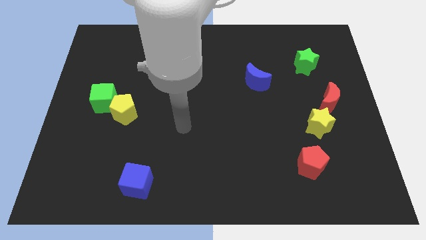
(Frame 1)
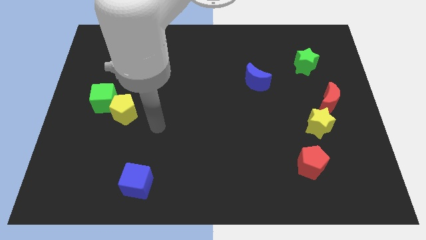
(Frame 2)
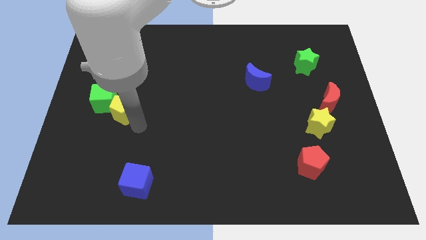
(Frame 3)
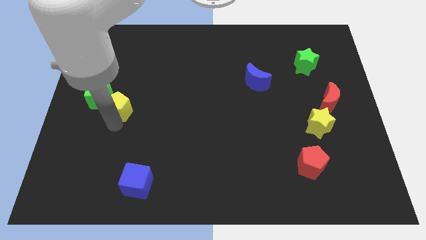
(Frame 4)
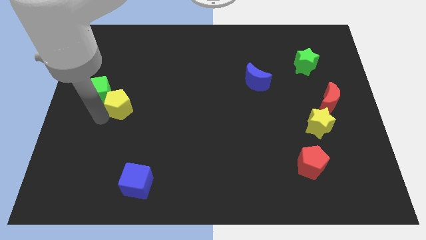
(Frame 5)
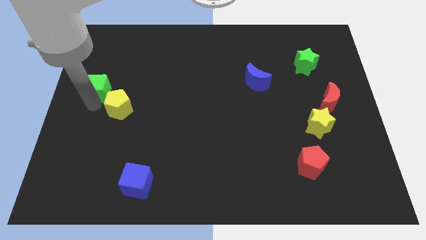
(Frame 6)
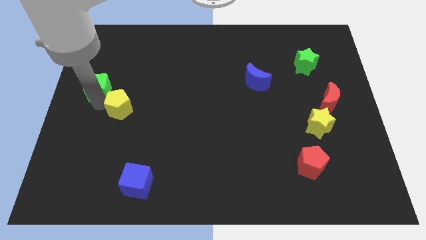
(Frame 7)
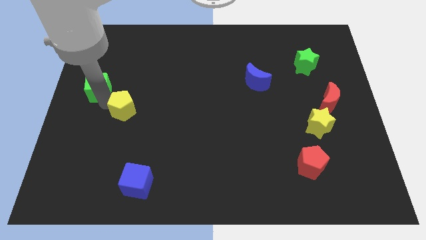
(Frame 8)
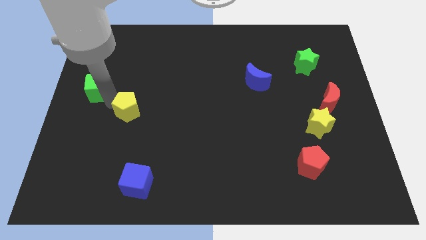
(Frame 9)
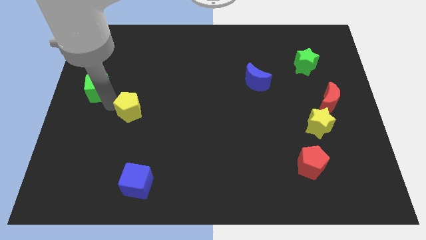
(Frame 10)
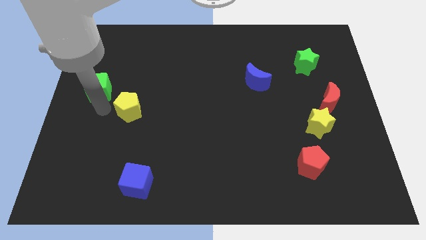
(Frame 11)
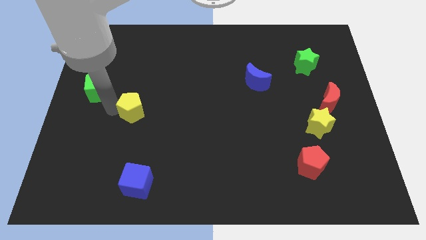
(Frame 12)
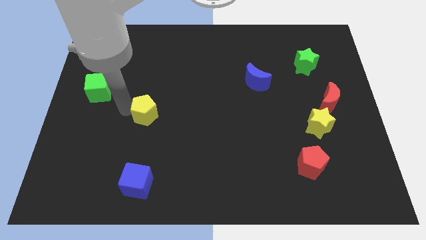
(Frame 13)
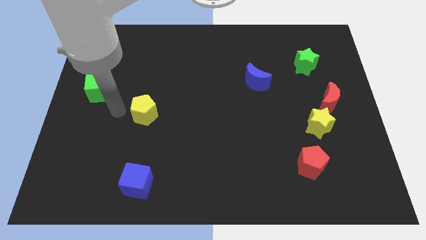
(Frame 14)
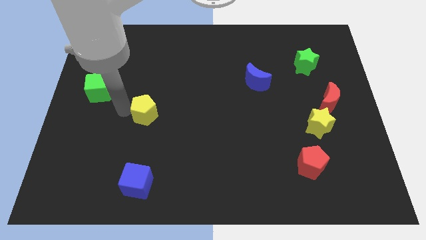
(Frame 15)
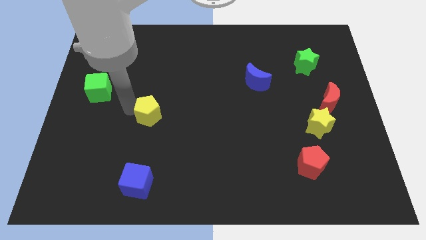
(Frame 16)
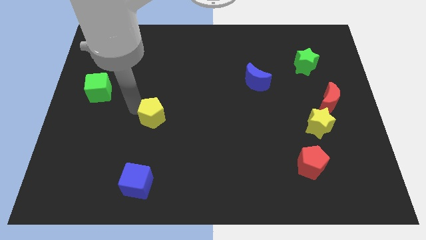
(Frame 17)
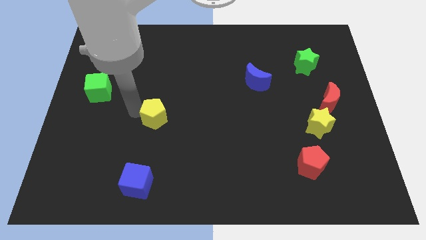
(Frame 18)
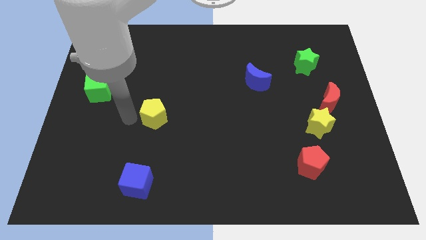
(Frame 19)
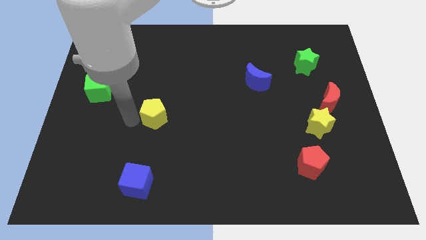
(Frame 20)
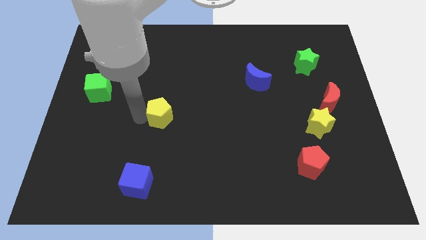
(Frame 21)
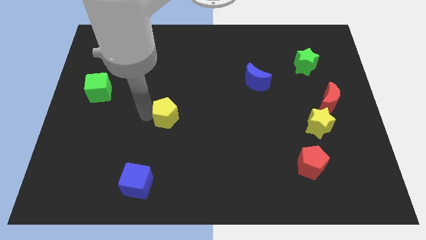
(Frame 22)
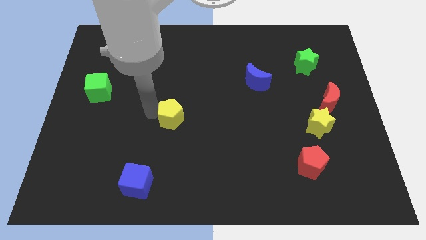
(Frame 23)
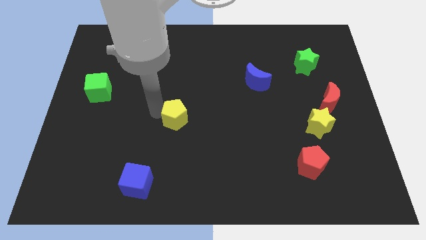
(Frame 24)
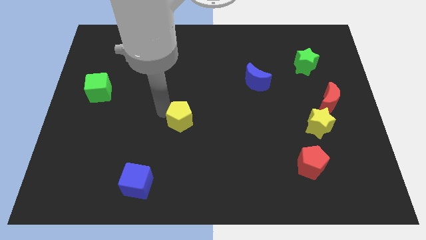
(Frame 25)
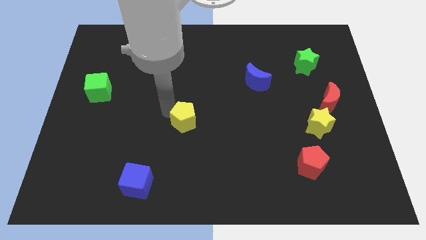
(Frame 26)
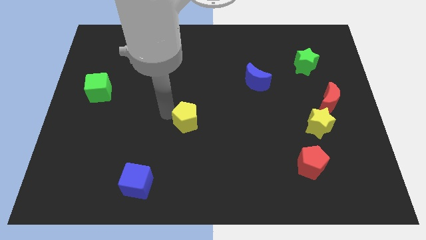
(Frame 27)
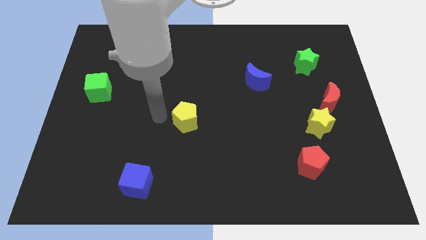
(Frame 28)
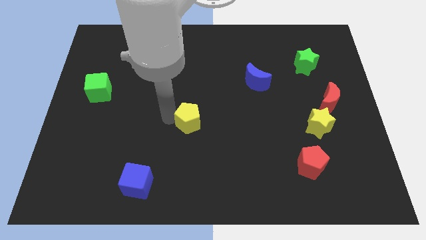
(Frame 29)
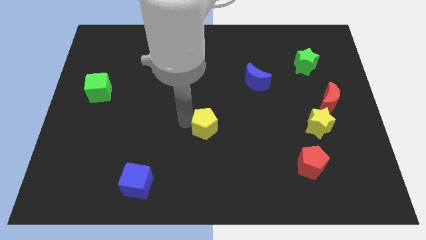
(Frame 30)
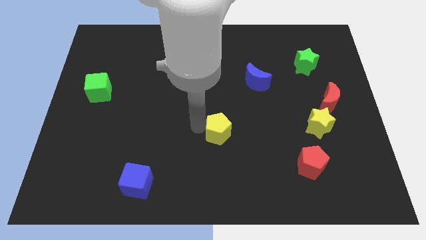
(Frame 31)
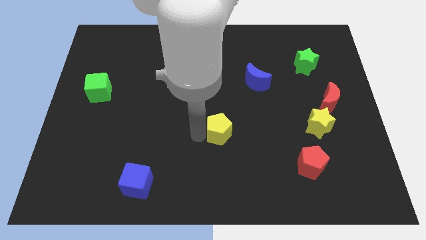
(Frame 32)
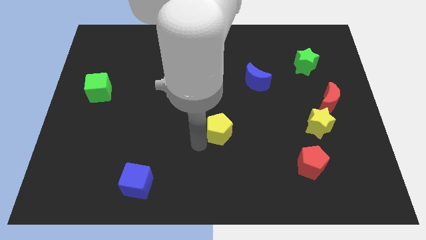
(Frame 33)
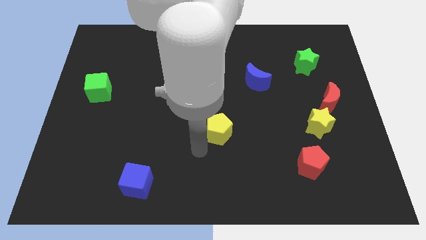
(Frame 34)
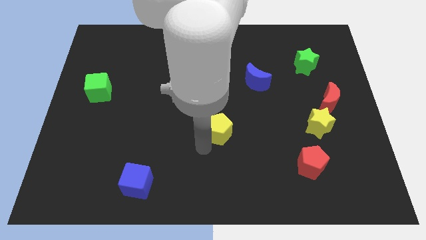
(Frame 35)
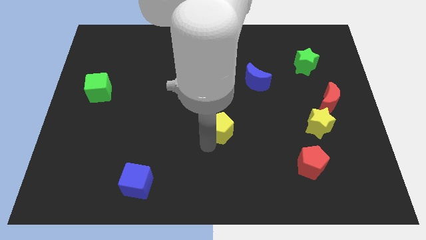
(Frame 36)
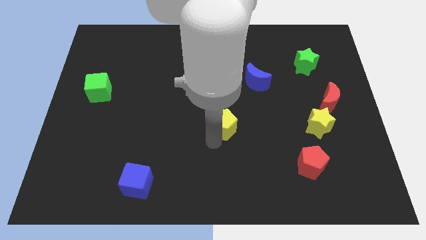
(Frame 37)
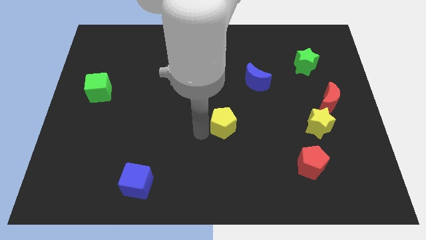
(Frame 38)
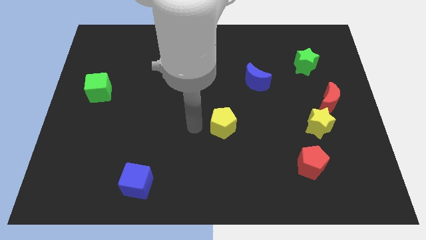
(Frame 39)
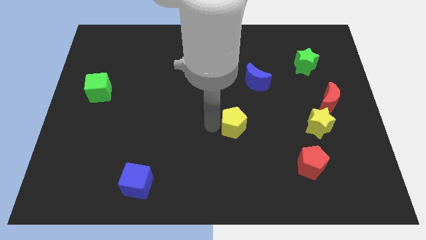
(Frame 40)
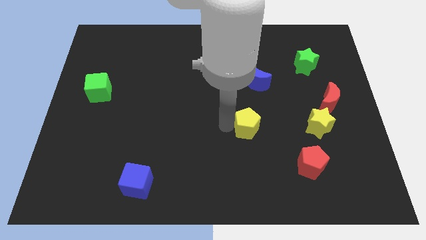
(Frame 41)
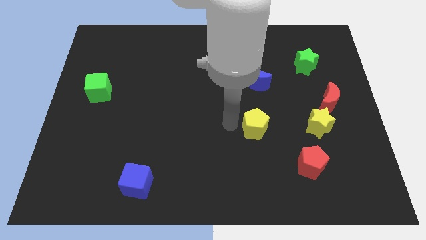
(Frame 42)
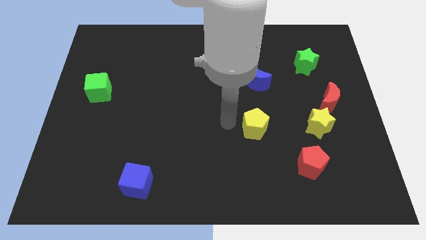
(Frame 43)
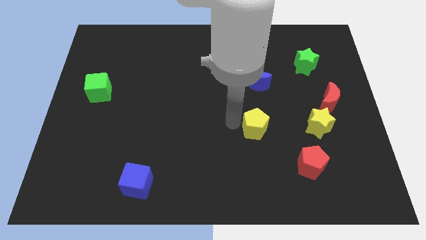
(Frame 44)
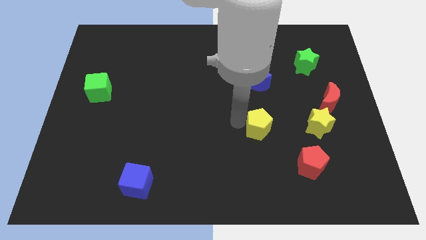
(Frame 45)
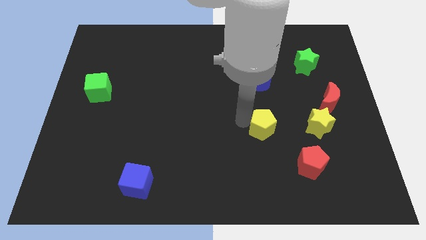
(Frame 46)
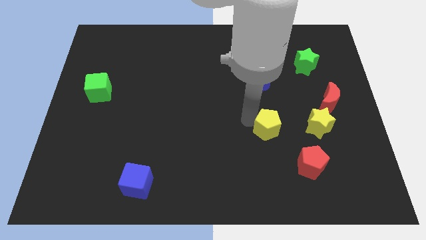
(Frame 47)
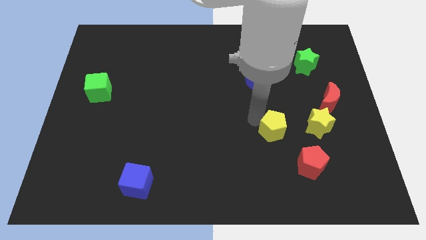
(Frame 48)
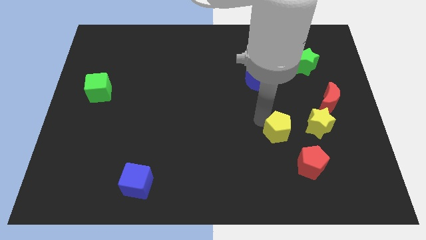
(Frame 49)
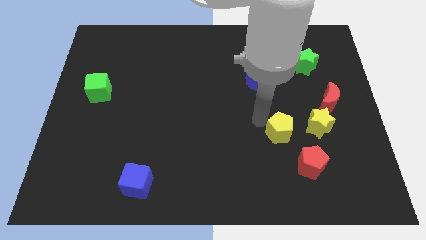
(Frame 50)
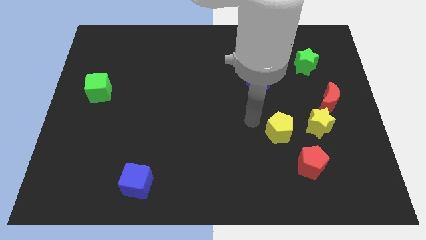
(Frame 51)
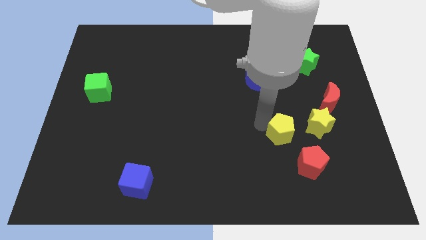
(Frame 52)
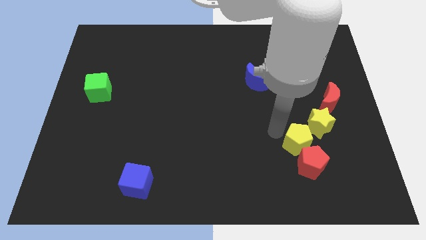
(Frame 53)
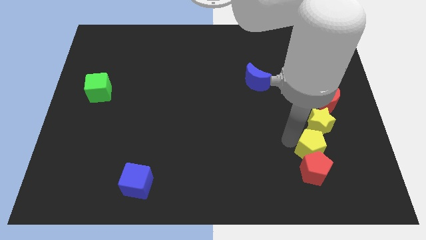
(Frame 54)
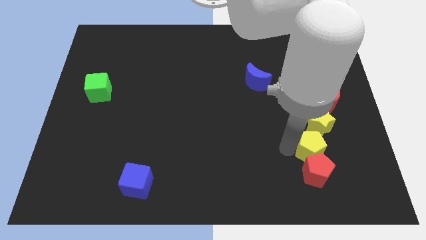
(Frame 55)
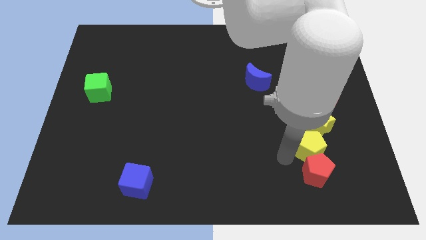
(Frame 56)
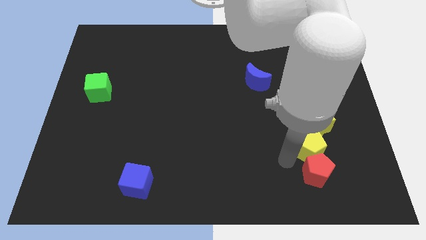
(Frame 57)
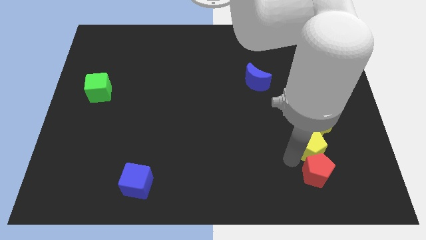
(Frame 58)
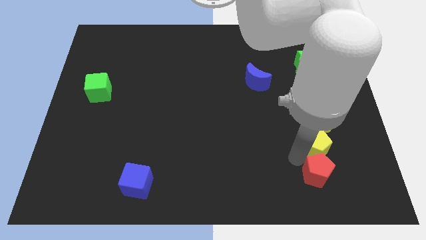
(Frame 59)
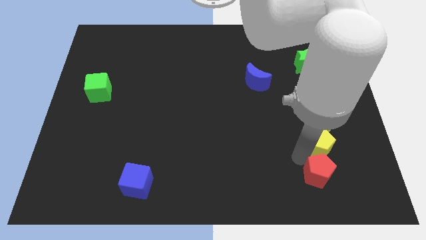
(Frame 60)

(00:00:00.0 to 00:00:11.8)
move the yellow pentagon to the bottom right side of the yellow star

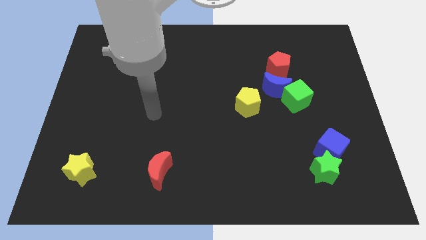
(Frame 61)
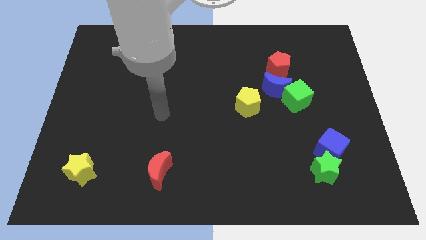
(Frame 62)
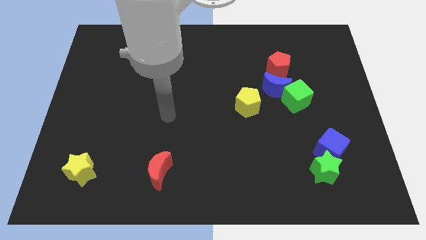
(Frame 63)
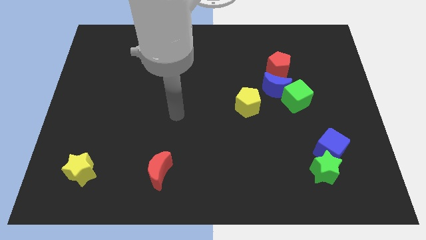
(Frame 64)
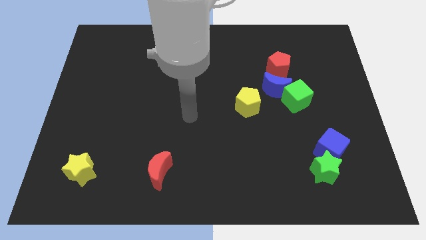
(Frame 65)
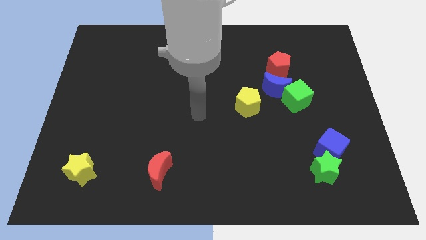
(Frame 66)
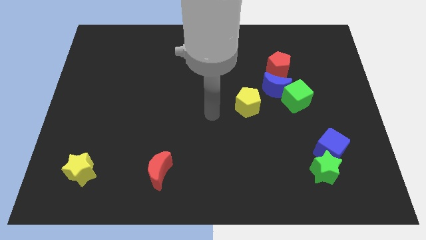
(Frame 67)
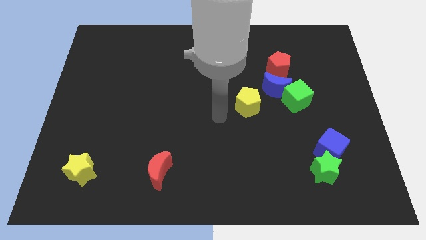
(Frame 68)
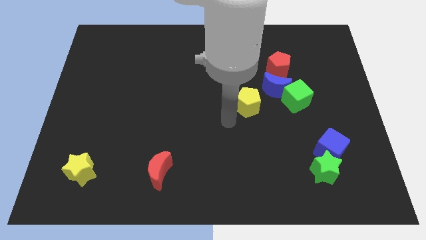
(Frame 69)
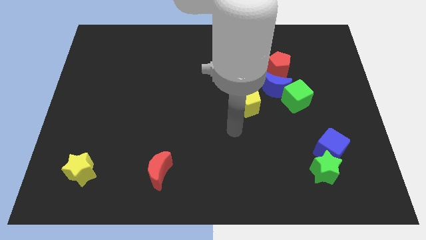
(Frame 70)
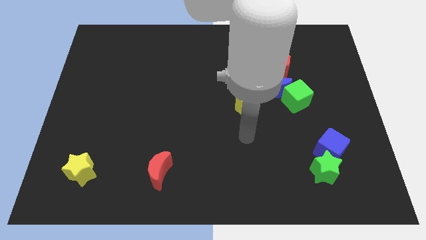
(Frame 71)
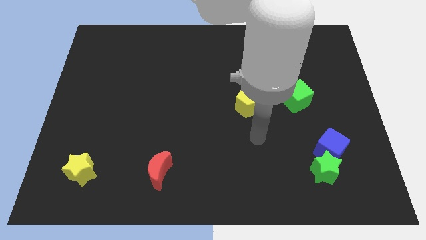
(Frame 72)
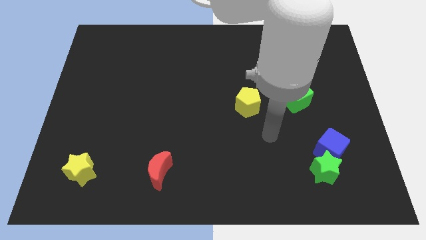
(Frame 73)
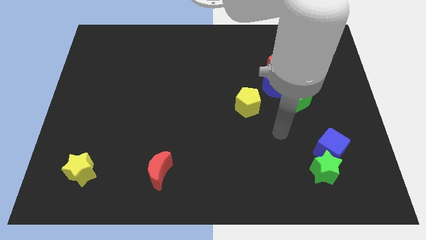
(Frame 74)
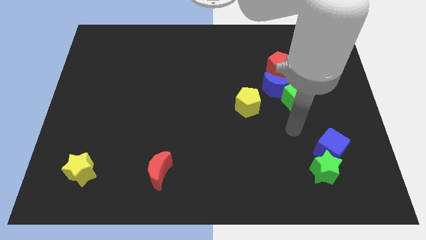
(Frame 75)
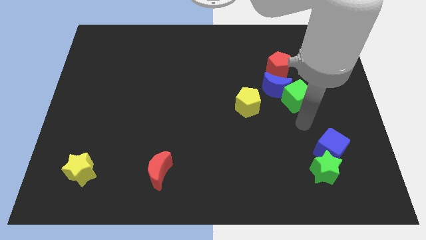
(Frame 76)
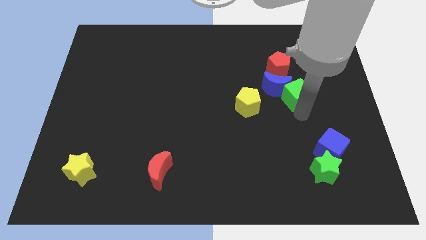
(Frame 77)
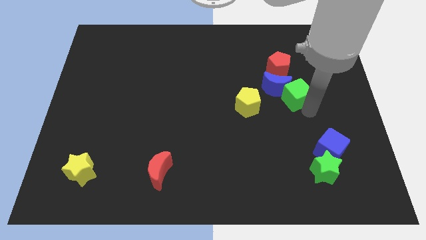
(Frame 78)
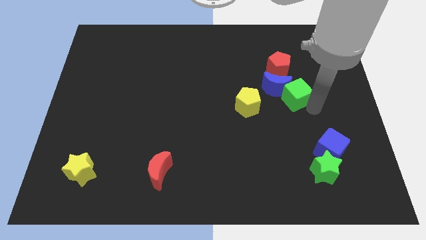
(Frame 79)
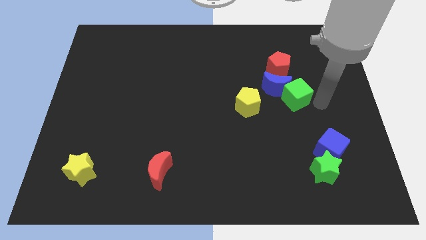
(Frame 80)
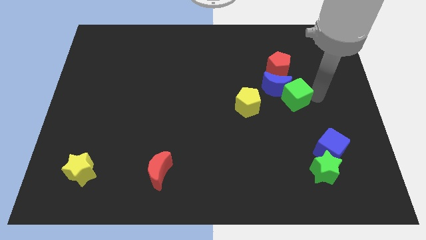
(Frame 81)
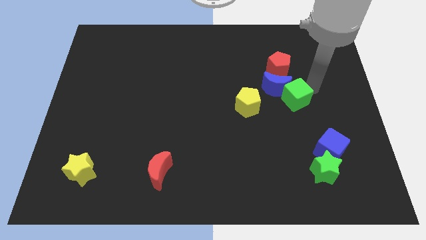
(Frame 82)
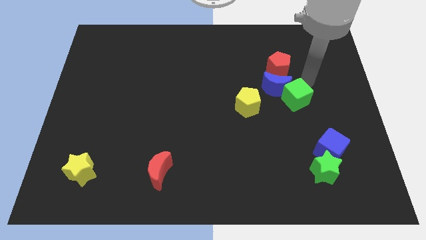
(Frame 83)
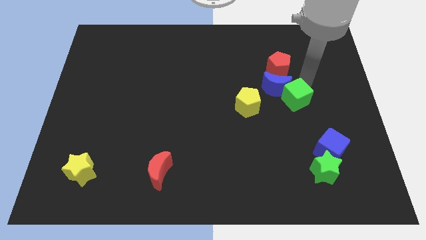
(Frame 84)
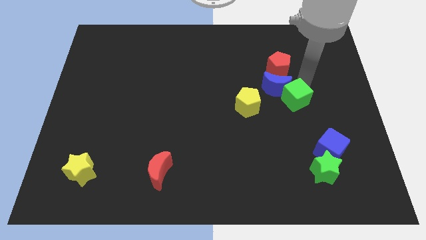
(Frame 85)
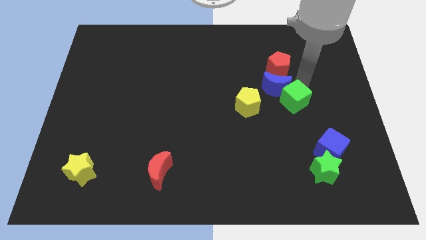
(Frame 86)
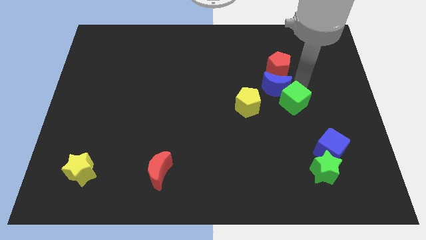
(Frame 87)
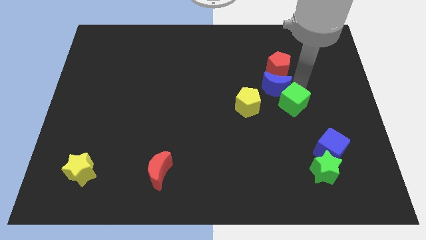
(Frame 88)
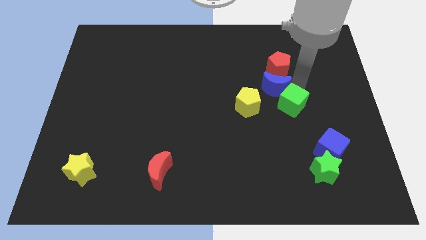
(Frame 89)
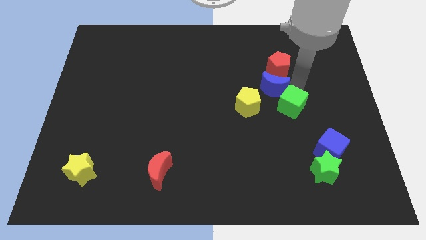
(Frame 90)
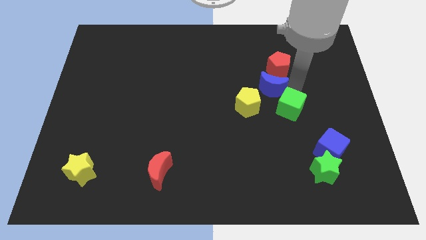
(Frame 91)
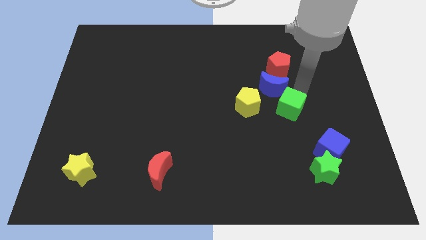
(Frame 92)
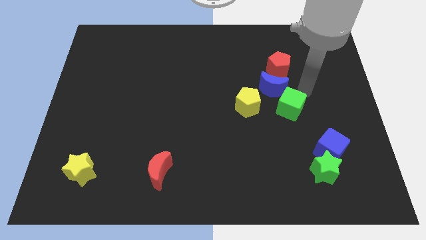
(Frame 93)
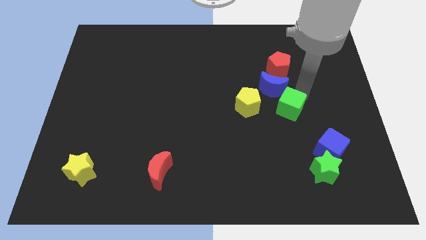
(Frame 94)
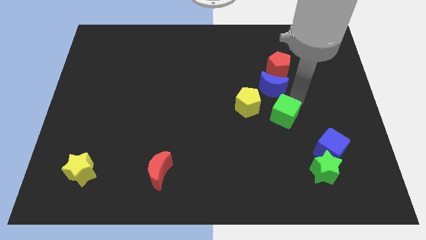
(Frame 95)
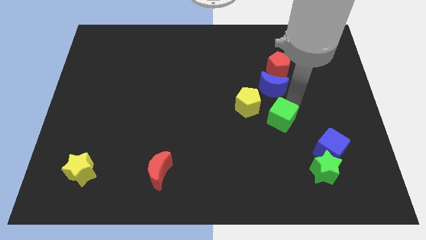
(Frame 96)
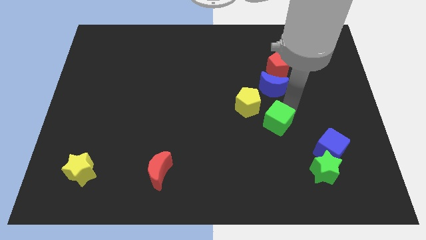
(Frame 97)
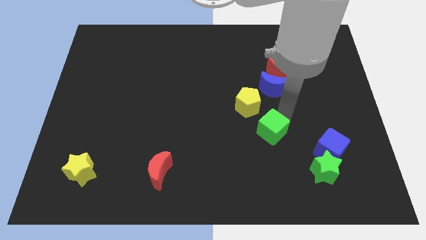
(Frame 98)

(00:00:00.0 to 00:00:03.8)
move the green cube below the yellow pentagon
